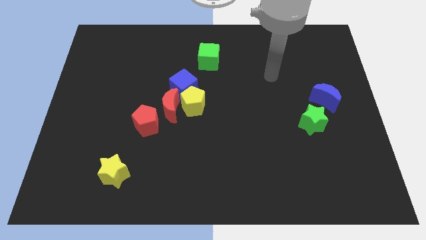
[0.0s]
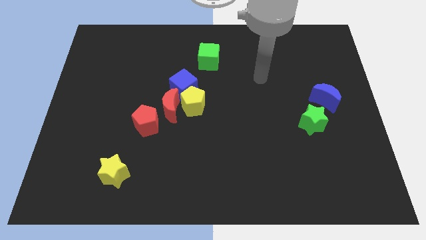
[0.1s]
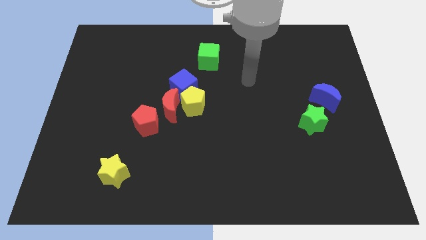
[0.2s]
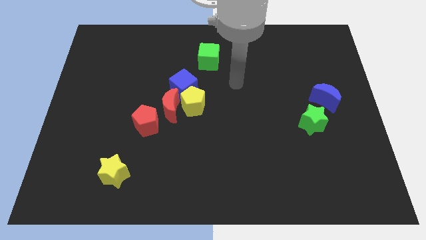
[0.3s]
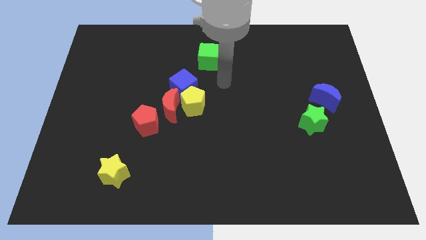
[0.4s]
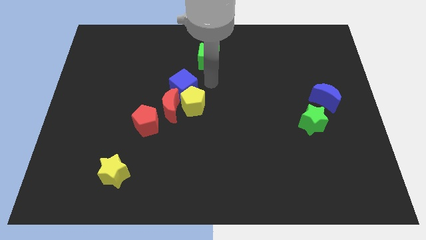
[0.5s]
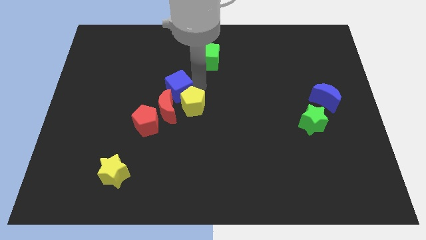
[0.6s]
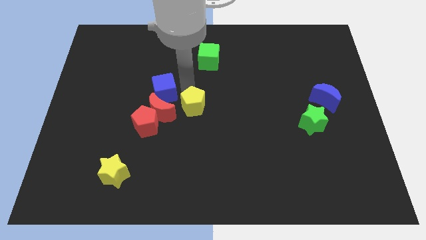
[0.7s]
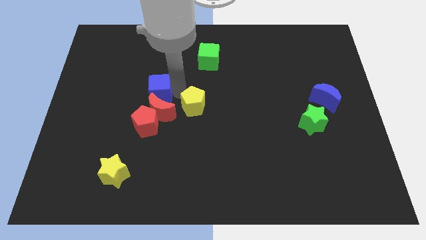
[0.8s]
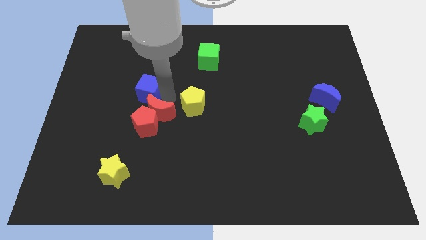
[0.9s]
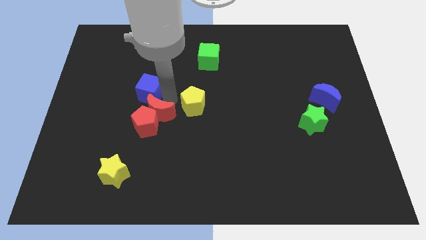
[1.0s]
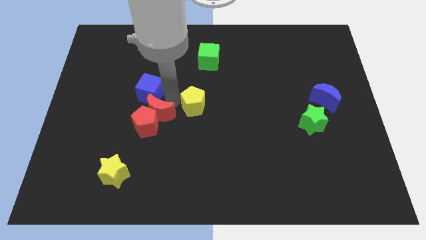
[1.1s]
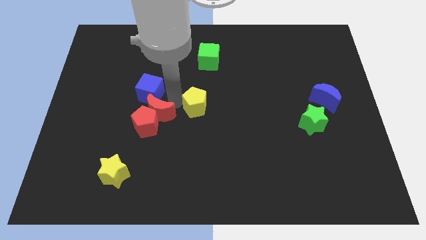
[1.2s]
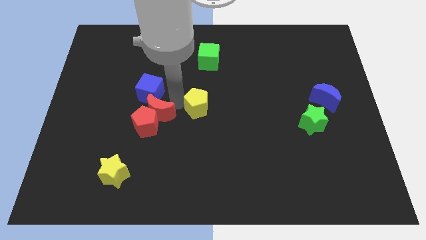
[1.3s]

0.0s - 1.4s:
separate the yellow pentagon from the red moon and blue cube

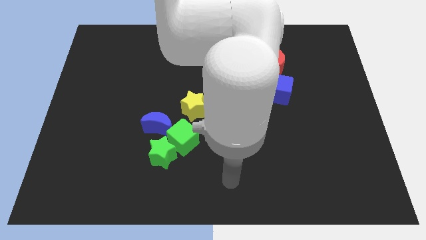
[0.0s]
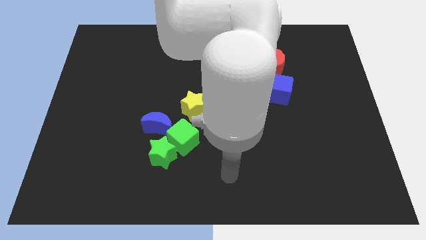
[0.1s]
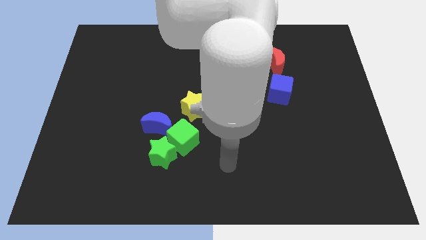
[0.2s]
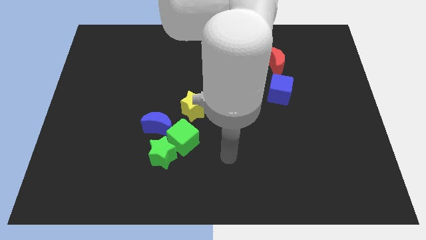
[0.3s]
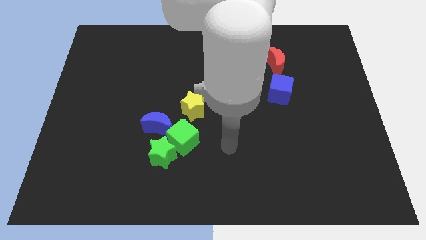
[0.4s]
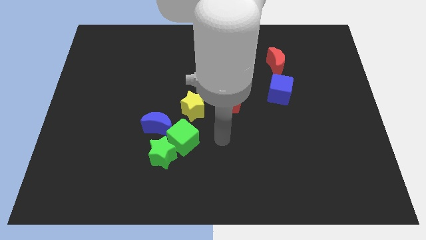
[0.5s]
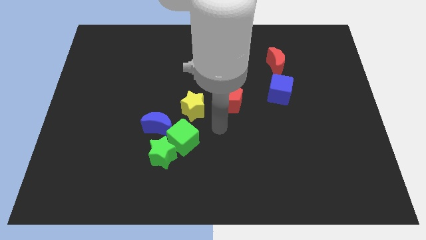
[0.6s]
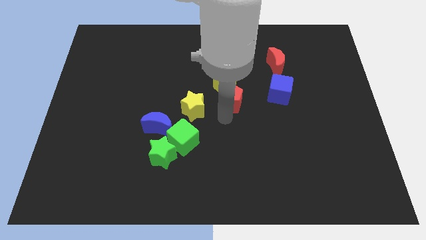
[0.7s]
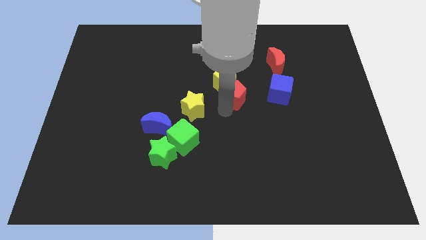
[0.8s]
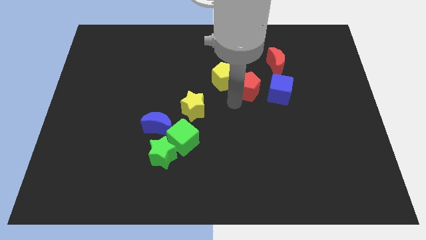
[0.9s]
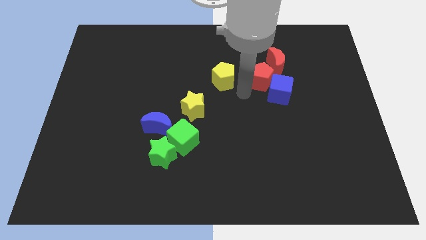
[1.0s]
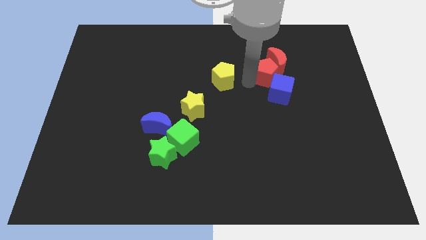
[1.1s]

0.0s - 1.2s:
move the yellow pentagon away from the red pentagon

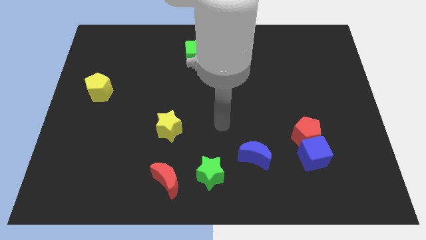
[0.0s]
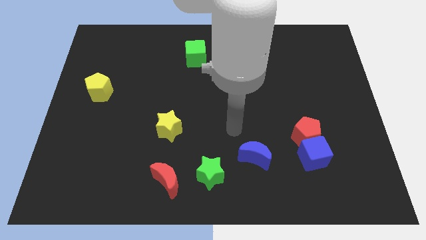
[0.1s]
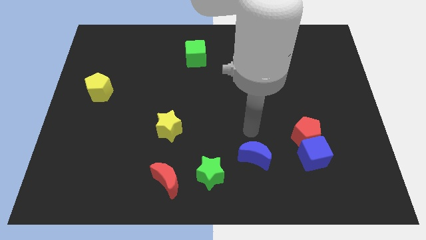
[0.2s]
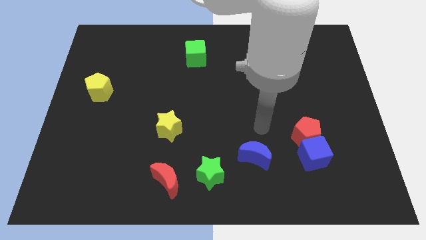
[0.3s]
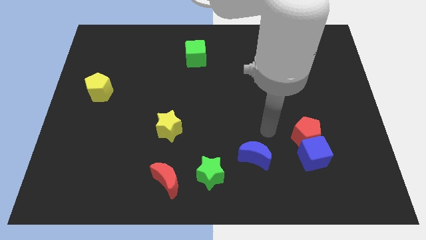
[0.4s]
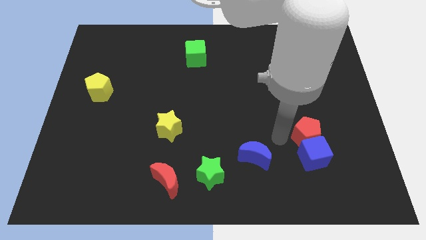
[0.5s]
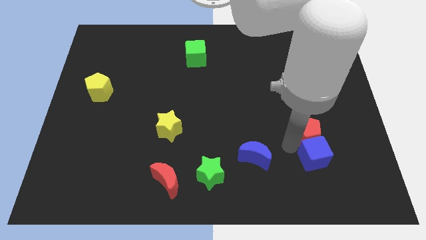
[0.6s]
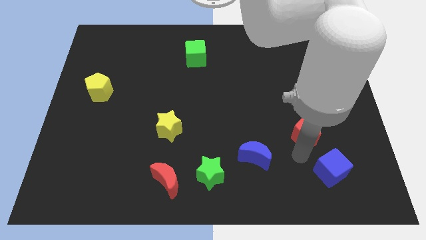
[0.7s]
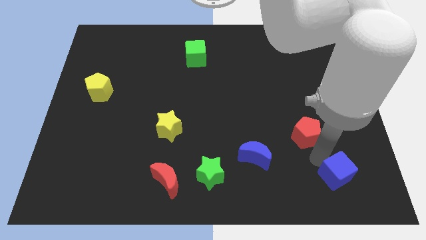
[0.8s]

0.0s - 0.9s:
pull the red pentagon apart from the blue cube

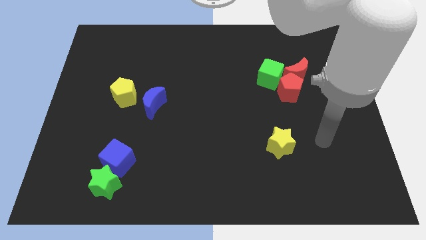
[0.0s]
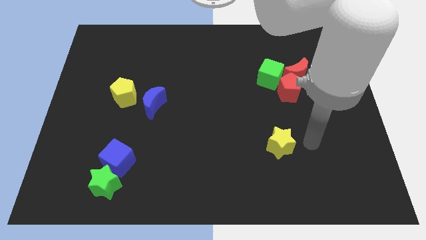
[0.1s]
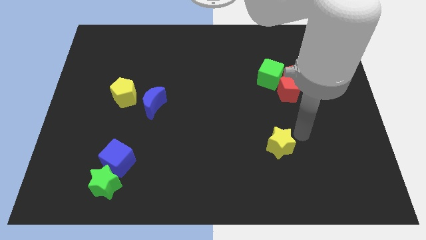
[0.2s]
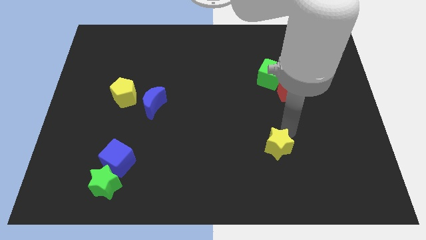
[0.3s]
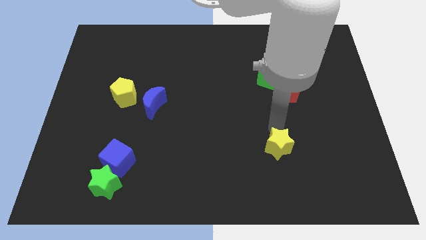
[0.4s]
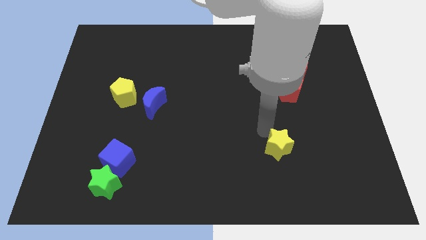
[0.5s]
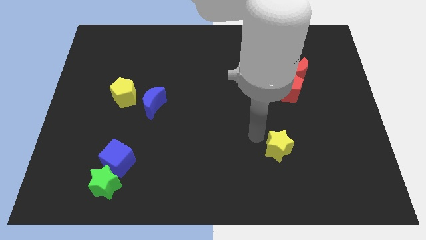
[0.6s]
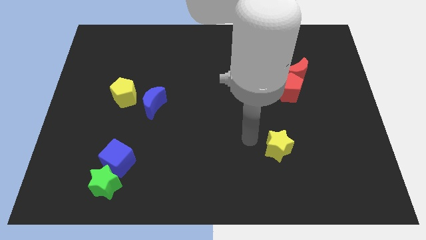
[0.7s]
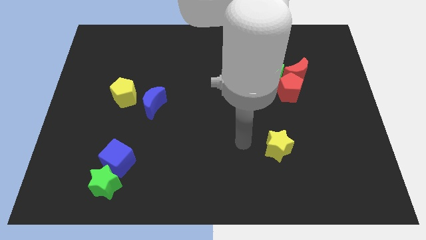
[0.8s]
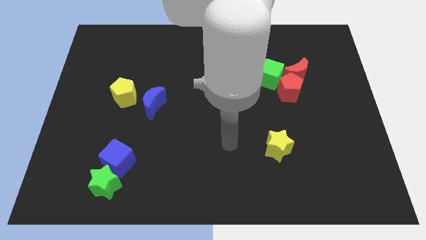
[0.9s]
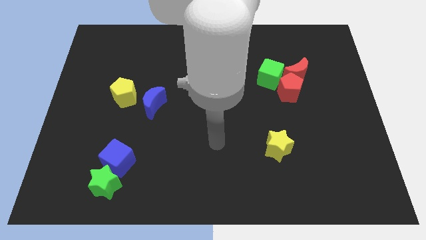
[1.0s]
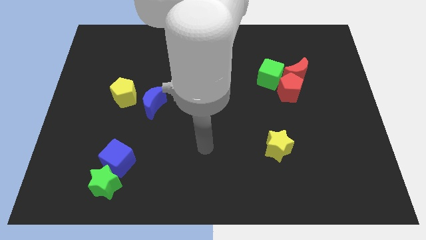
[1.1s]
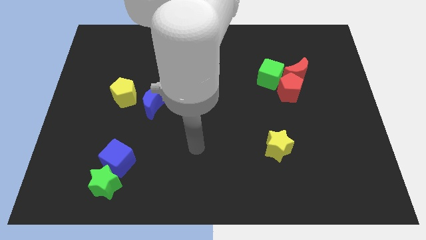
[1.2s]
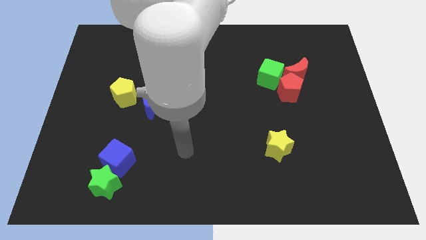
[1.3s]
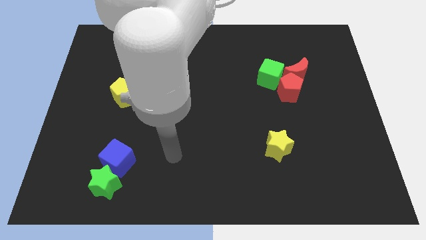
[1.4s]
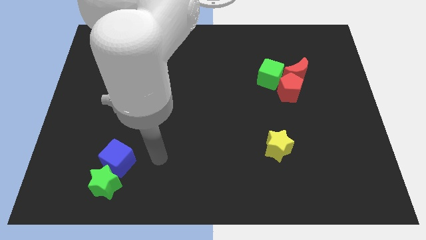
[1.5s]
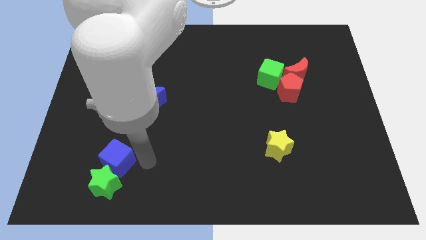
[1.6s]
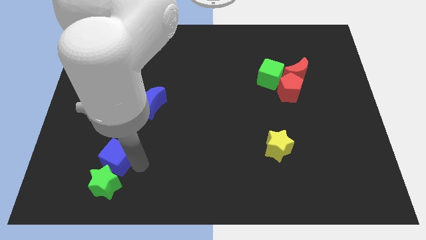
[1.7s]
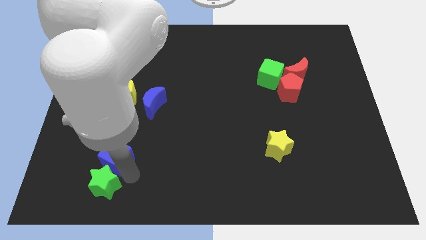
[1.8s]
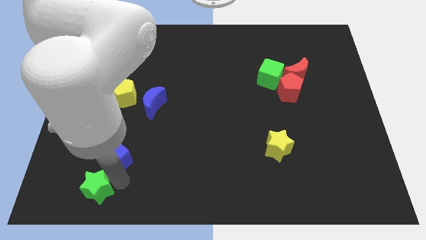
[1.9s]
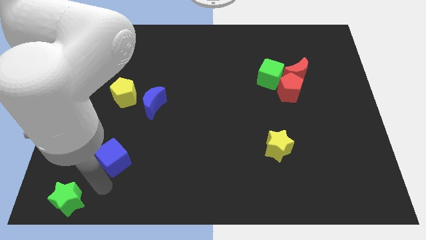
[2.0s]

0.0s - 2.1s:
pull the blue cube apart from the green star

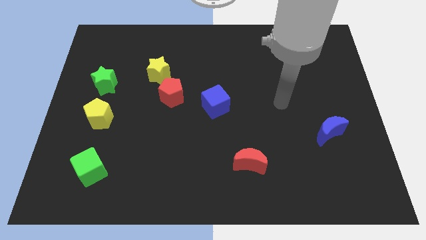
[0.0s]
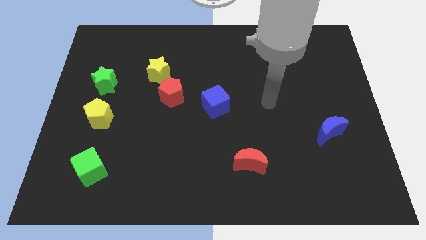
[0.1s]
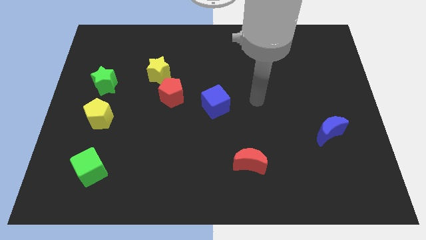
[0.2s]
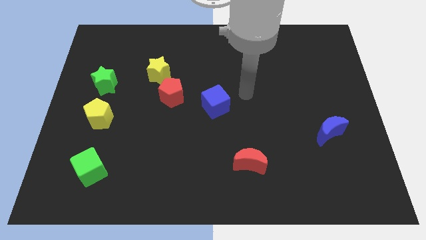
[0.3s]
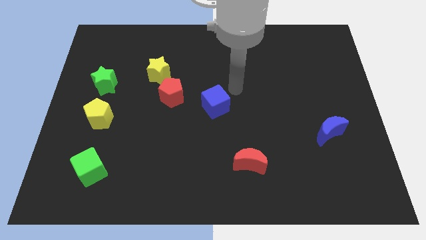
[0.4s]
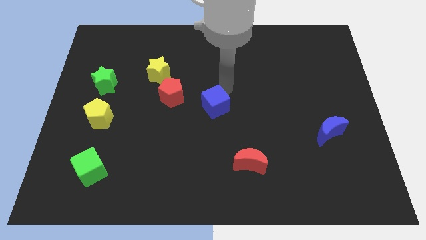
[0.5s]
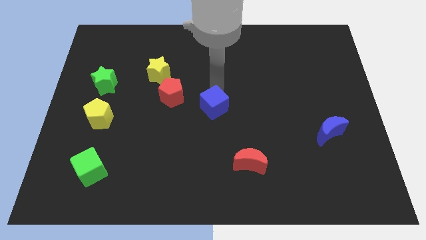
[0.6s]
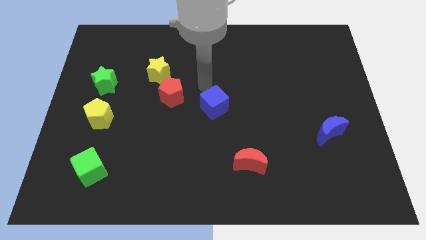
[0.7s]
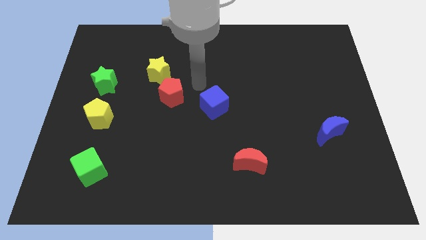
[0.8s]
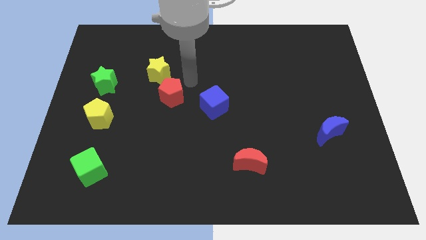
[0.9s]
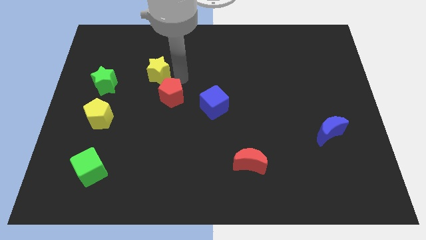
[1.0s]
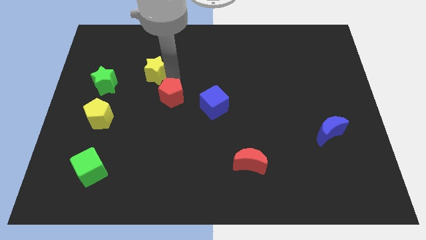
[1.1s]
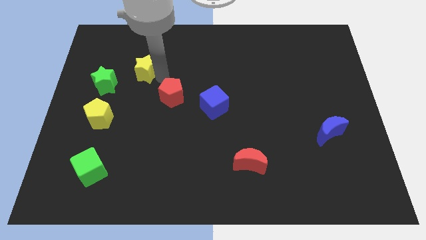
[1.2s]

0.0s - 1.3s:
pull the red pentagon apart from the yellow star

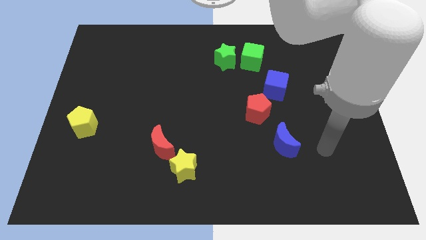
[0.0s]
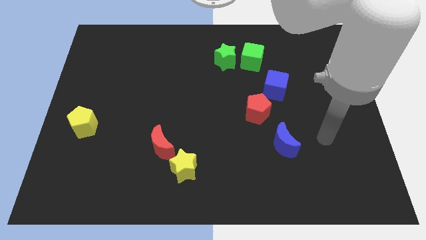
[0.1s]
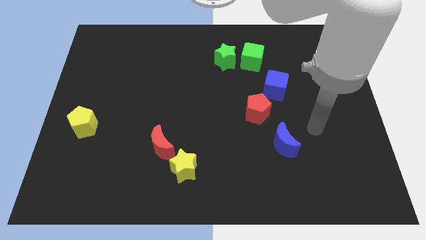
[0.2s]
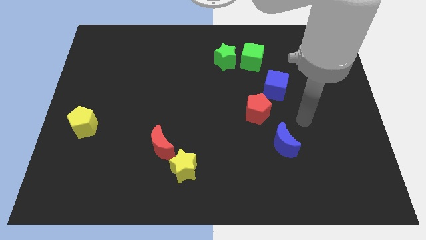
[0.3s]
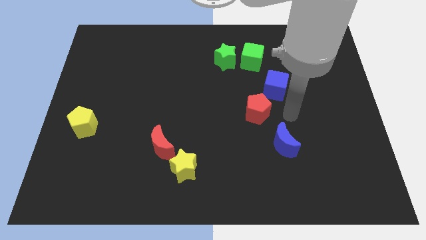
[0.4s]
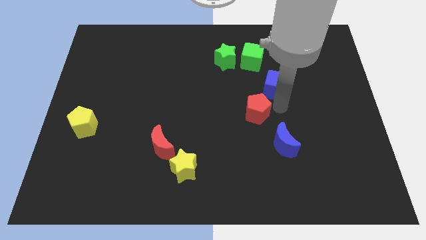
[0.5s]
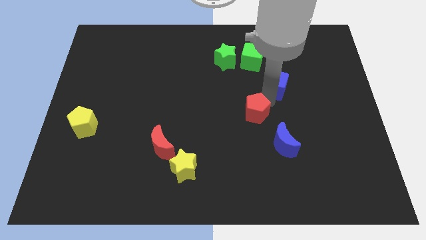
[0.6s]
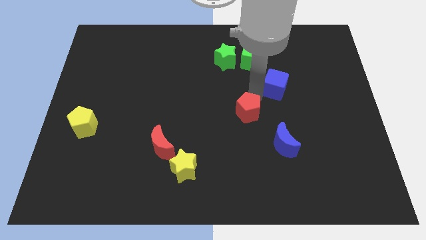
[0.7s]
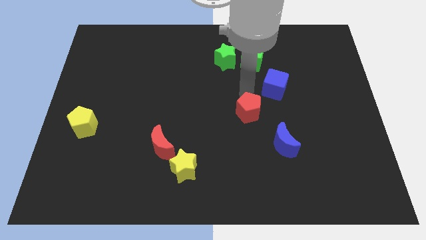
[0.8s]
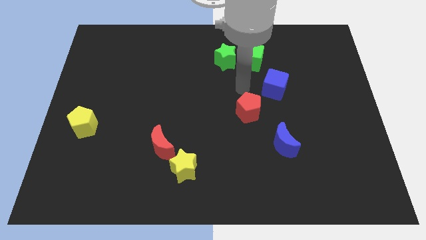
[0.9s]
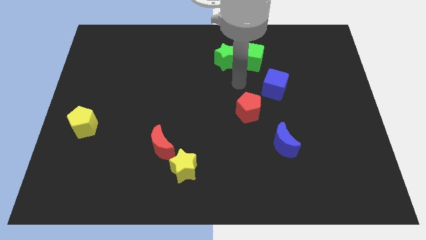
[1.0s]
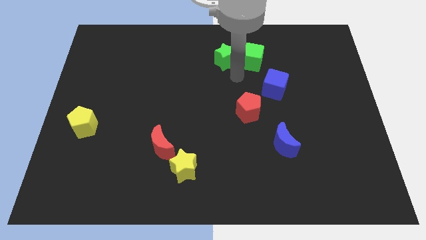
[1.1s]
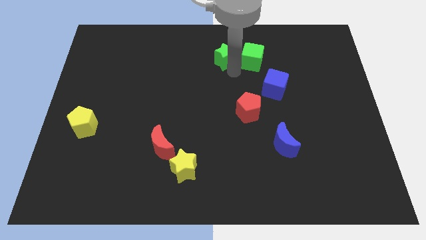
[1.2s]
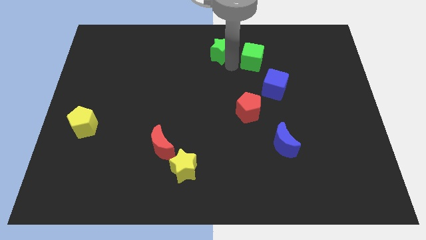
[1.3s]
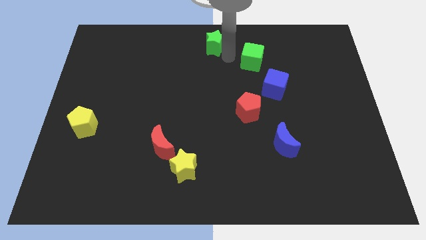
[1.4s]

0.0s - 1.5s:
move the green cube away from the green star

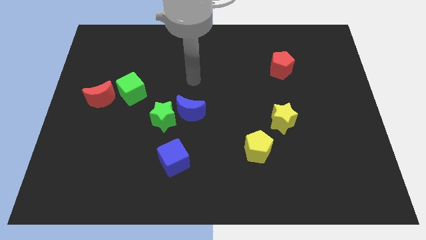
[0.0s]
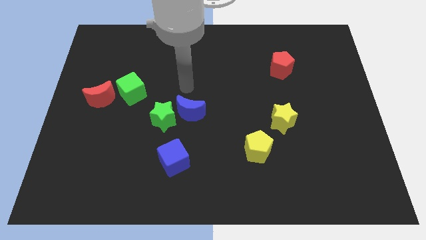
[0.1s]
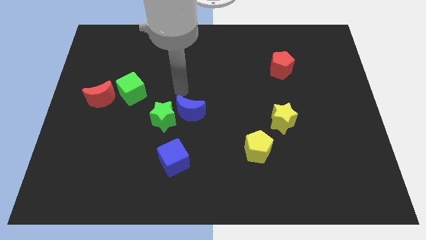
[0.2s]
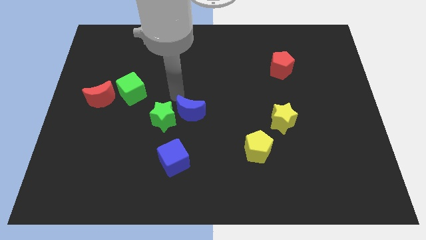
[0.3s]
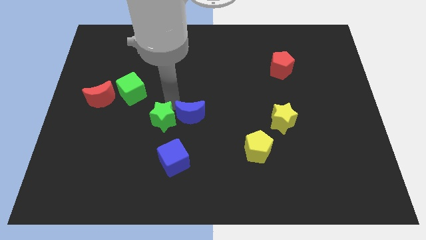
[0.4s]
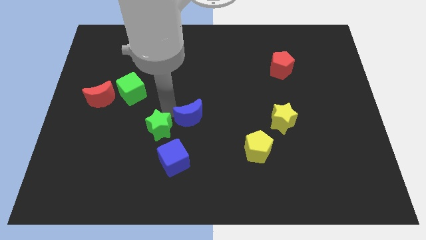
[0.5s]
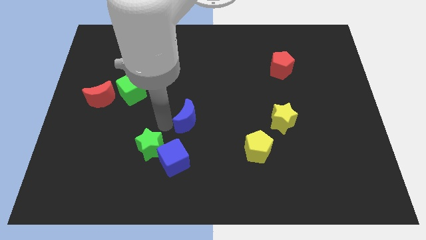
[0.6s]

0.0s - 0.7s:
move the blue moon away from the green star
